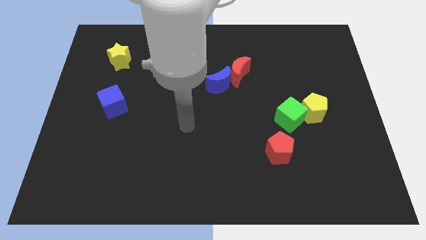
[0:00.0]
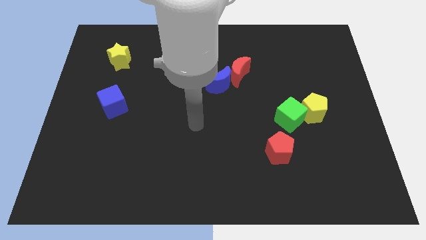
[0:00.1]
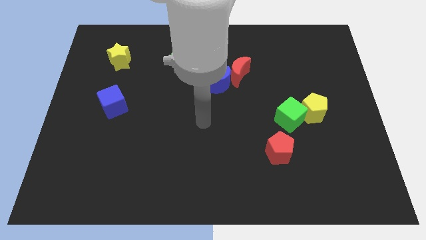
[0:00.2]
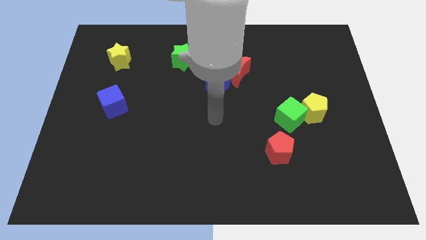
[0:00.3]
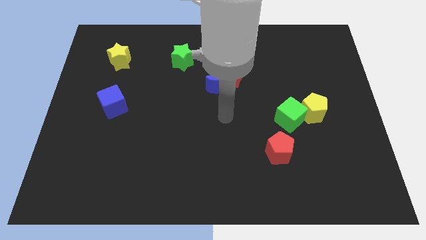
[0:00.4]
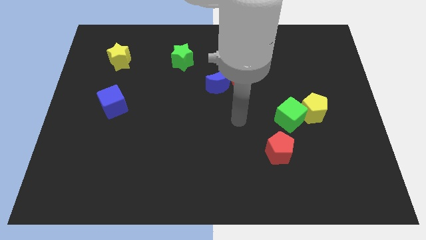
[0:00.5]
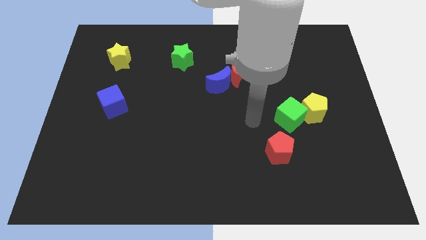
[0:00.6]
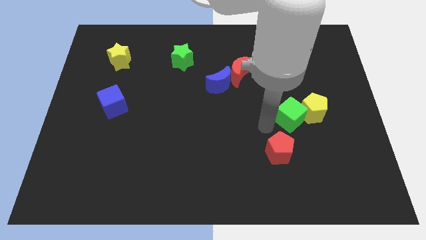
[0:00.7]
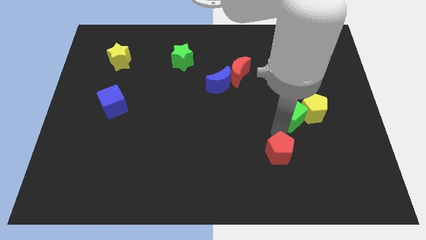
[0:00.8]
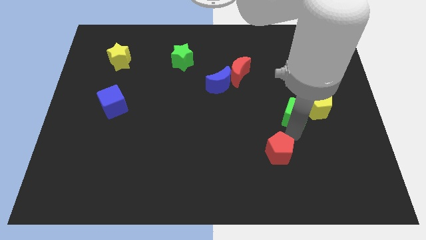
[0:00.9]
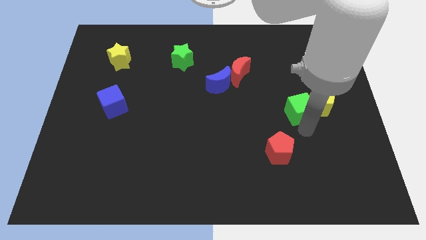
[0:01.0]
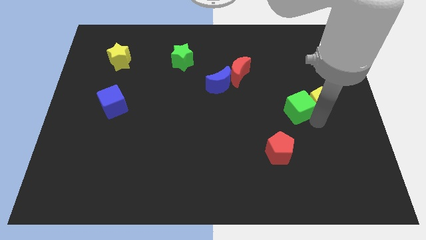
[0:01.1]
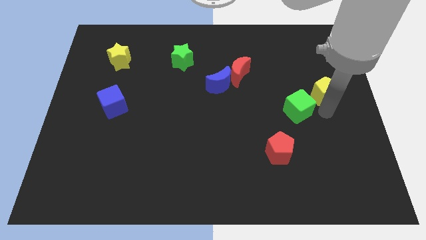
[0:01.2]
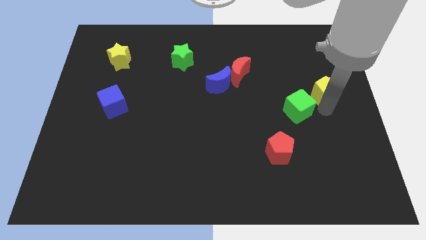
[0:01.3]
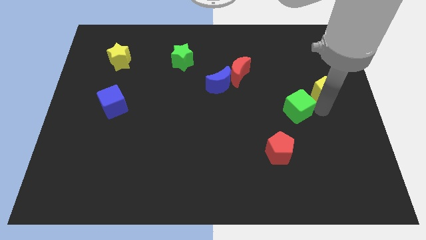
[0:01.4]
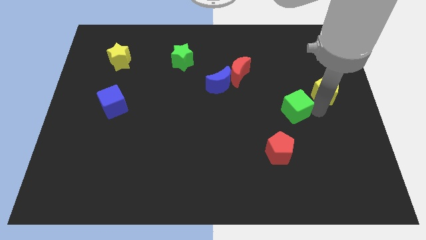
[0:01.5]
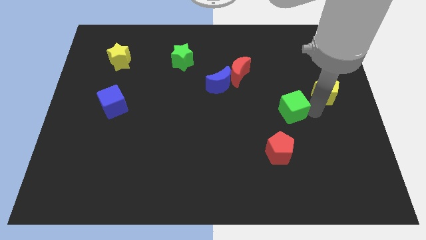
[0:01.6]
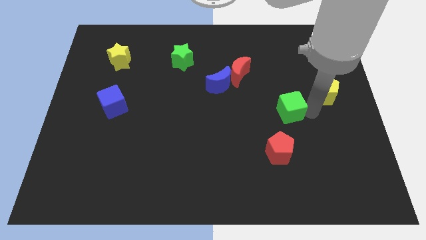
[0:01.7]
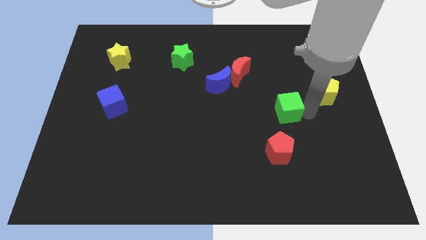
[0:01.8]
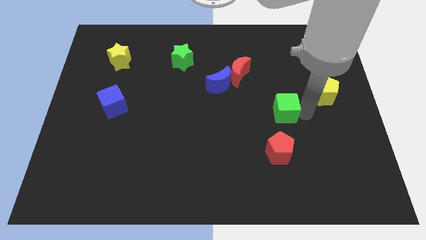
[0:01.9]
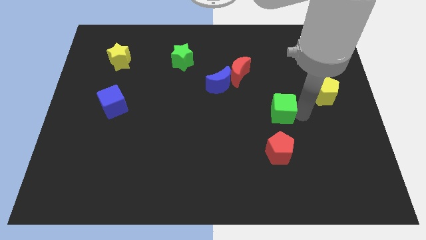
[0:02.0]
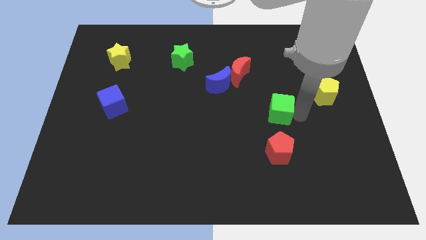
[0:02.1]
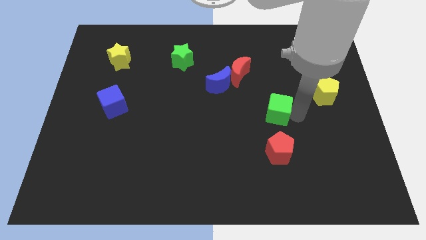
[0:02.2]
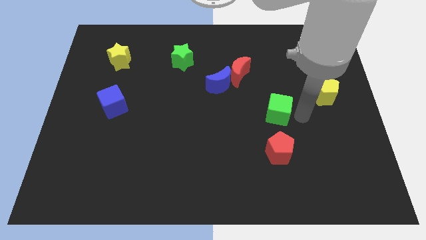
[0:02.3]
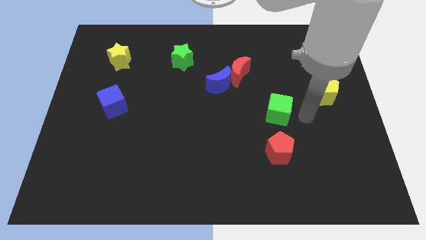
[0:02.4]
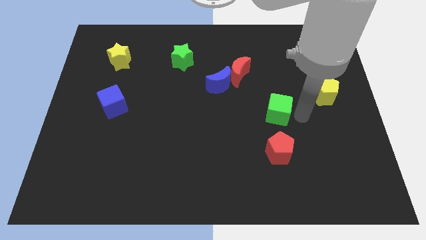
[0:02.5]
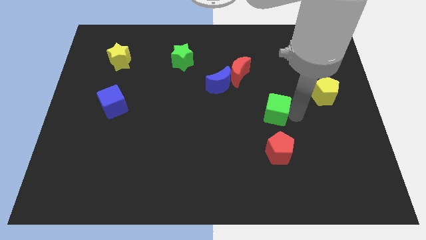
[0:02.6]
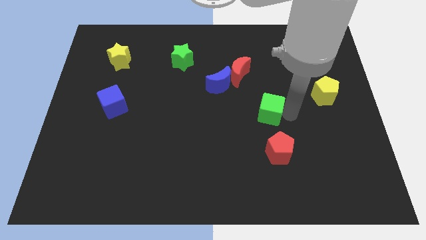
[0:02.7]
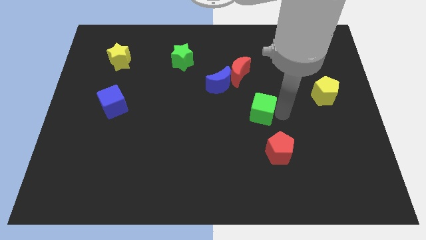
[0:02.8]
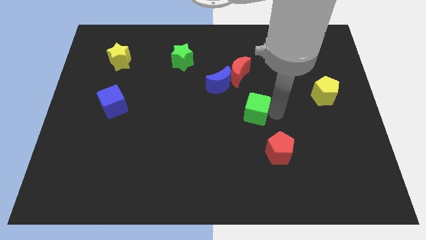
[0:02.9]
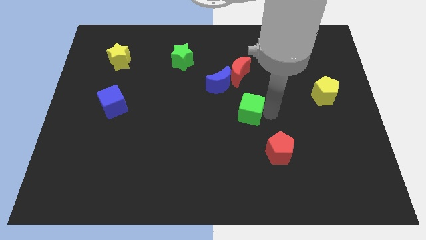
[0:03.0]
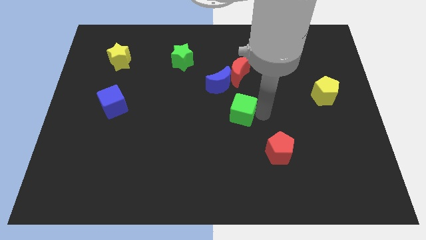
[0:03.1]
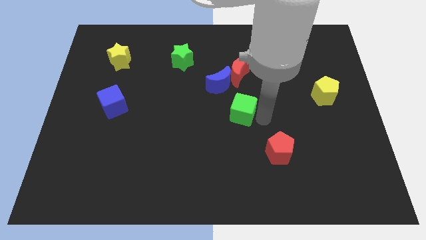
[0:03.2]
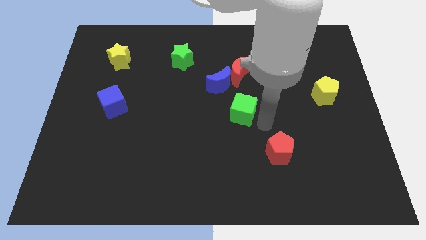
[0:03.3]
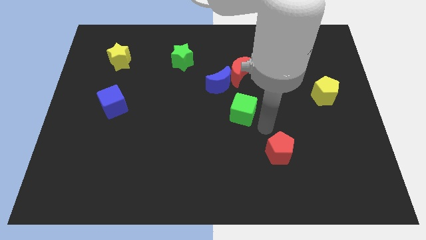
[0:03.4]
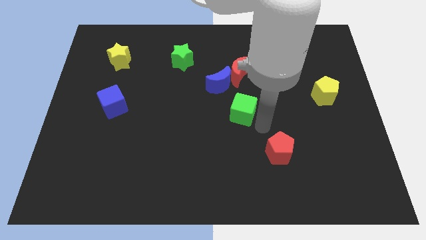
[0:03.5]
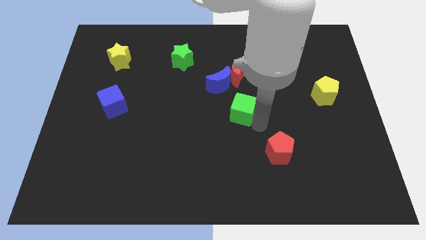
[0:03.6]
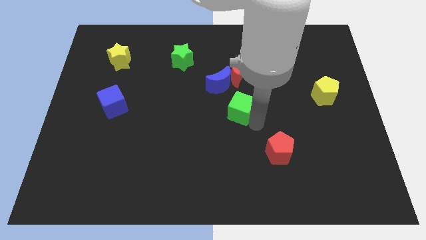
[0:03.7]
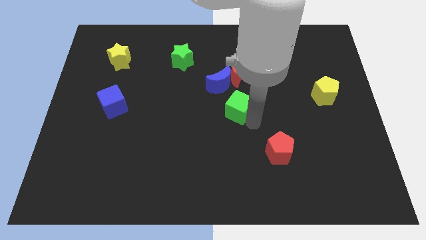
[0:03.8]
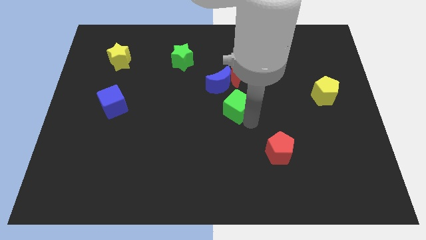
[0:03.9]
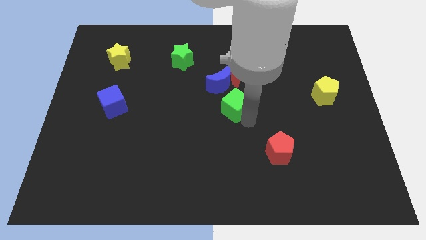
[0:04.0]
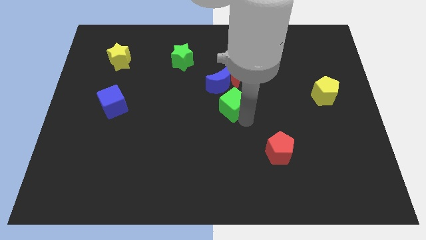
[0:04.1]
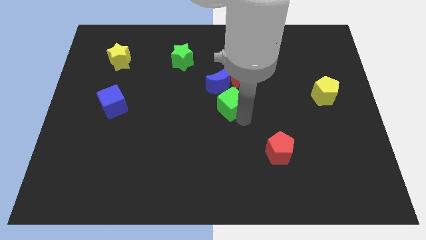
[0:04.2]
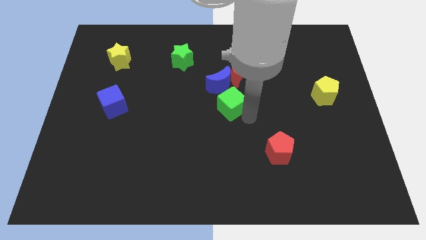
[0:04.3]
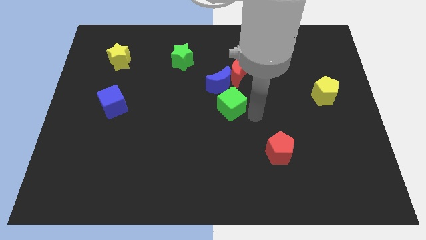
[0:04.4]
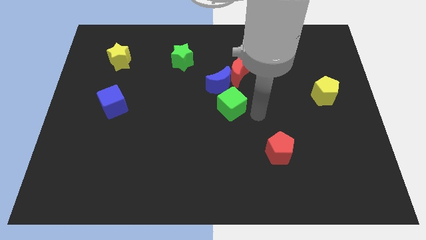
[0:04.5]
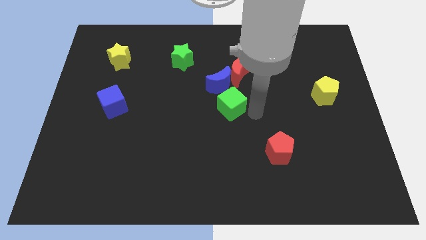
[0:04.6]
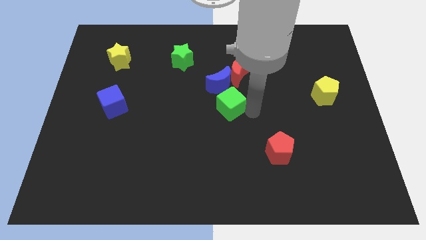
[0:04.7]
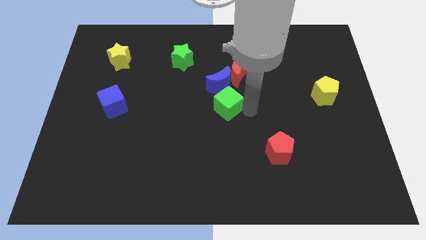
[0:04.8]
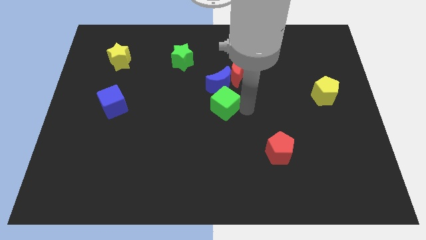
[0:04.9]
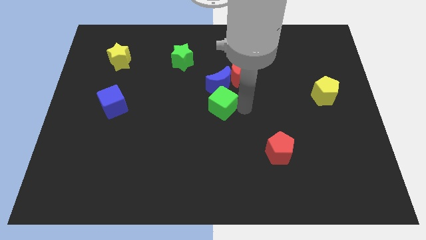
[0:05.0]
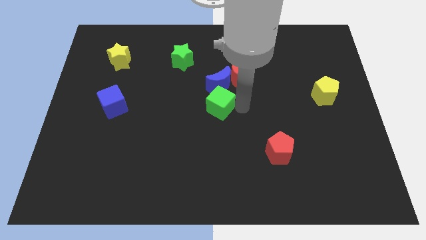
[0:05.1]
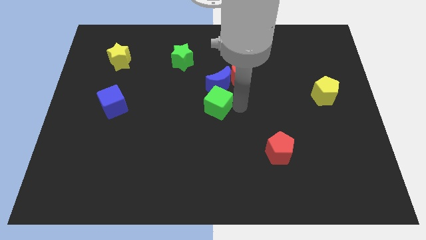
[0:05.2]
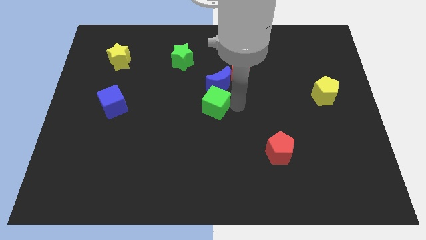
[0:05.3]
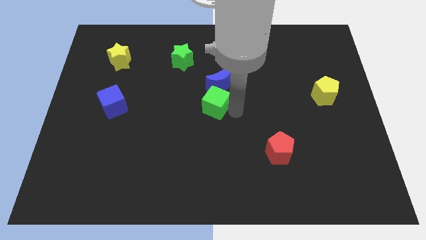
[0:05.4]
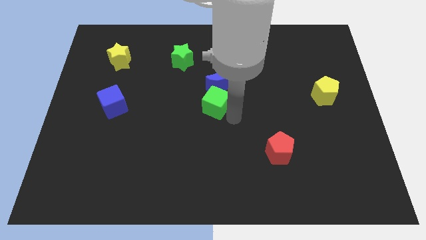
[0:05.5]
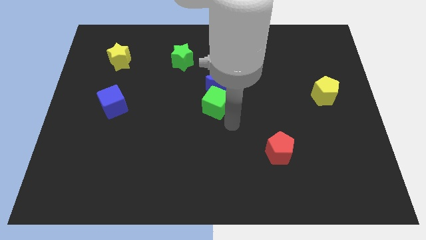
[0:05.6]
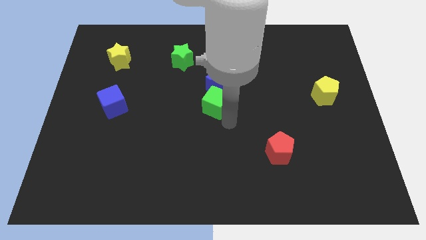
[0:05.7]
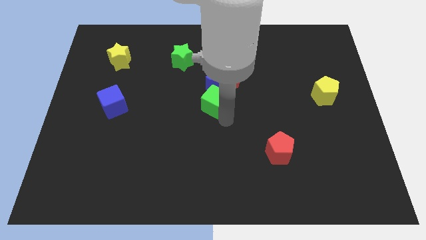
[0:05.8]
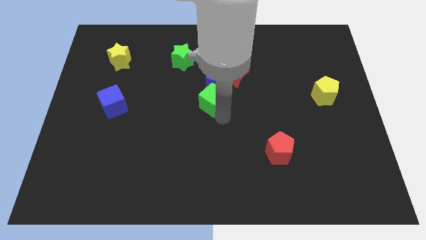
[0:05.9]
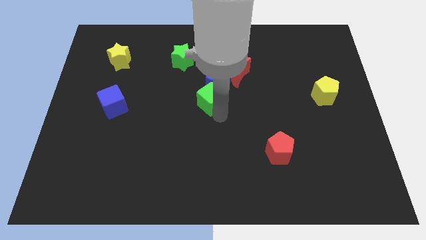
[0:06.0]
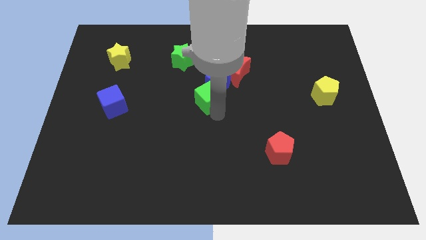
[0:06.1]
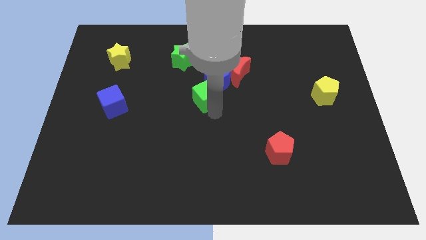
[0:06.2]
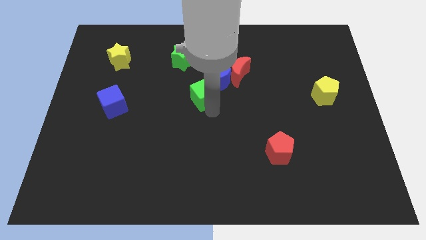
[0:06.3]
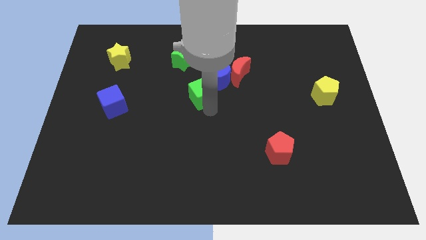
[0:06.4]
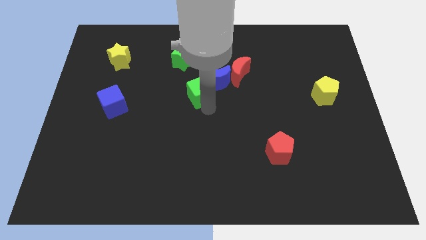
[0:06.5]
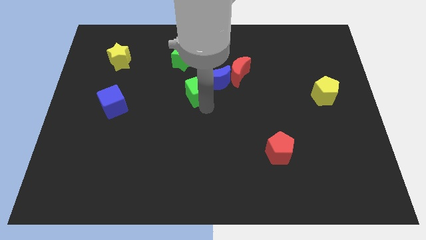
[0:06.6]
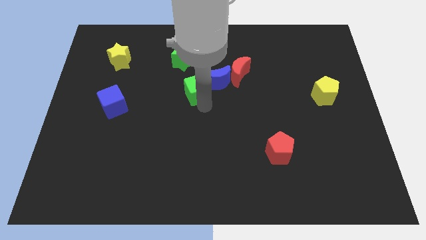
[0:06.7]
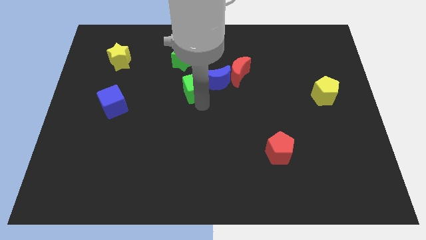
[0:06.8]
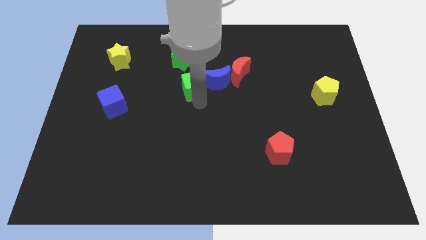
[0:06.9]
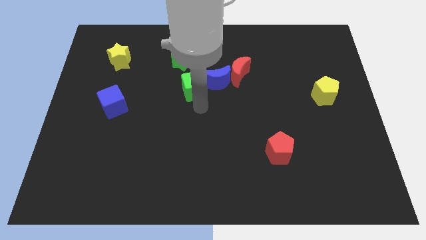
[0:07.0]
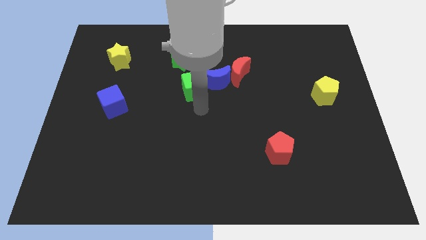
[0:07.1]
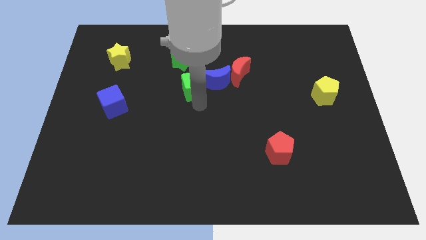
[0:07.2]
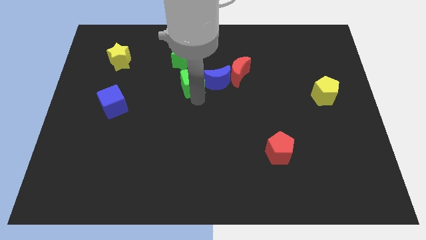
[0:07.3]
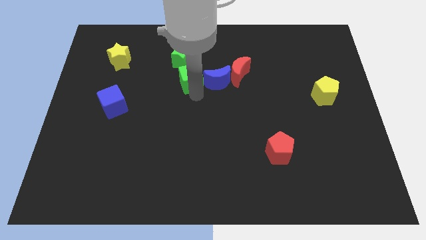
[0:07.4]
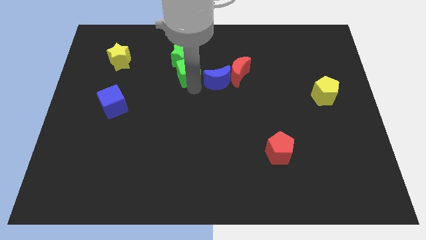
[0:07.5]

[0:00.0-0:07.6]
put the green cube to the green star
